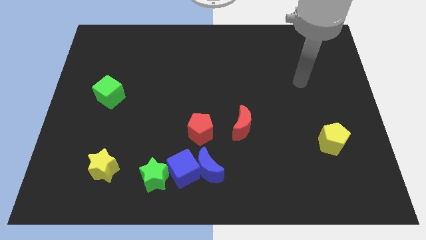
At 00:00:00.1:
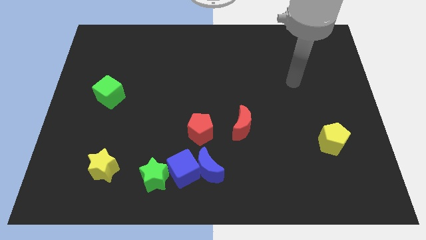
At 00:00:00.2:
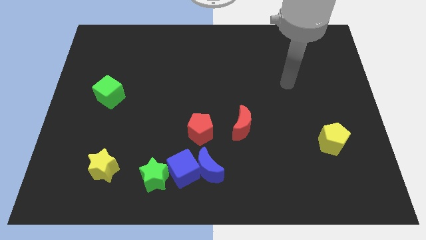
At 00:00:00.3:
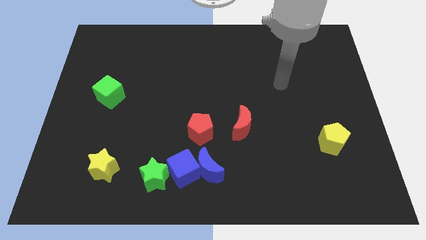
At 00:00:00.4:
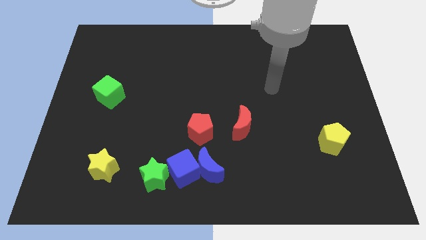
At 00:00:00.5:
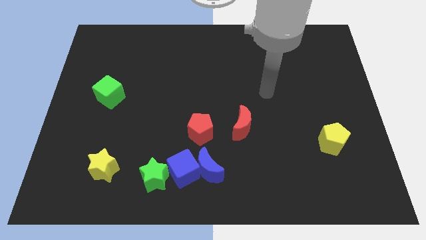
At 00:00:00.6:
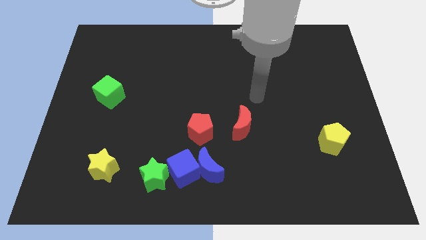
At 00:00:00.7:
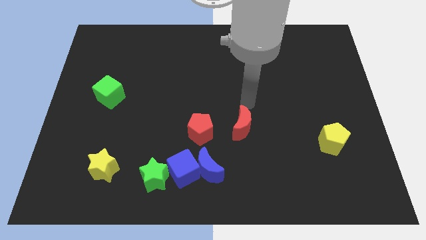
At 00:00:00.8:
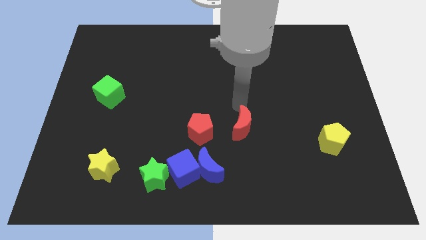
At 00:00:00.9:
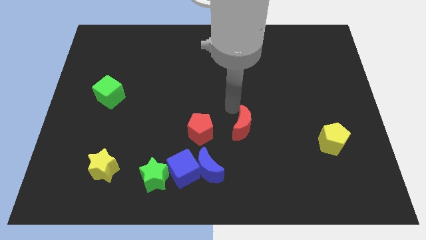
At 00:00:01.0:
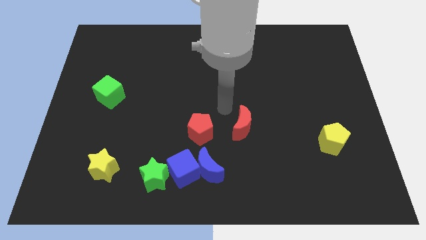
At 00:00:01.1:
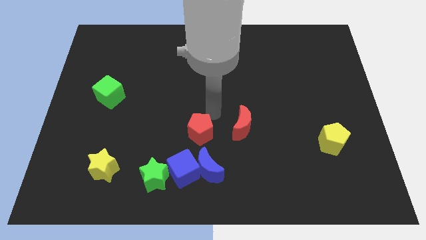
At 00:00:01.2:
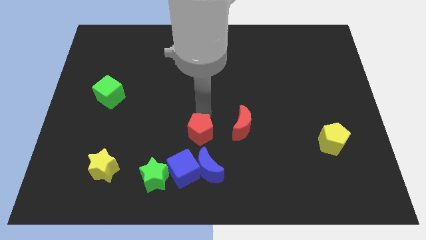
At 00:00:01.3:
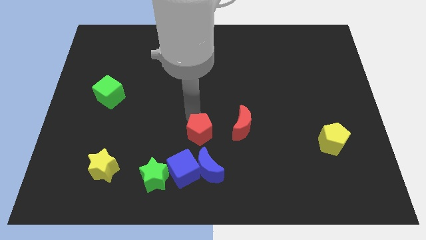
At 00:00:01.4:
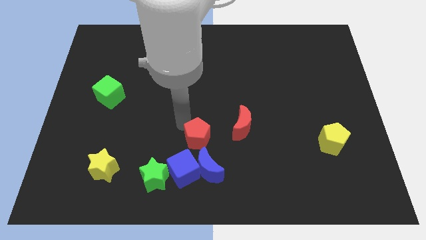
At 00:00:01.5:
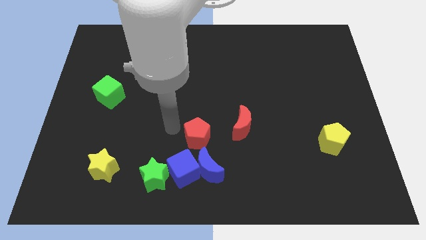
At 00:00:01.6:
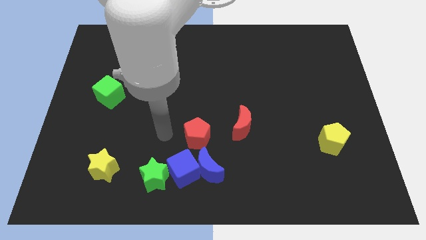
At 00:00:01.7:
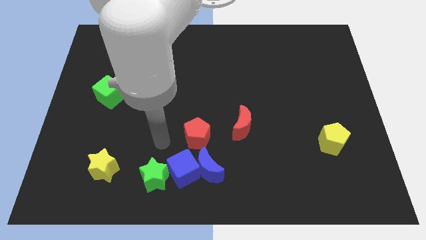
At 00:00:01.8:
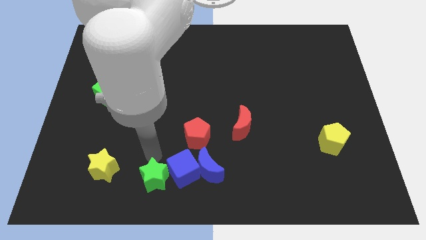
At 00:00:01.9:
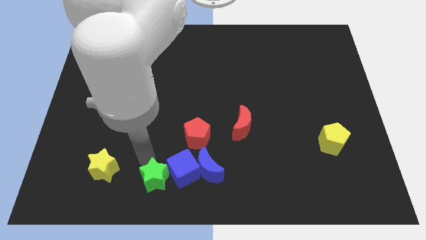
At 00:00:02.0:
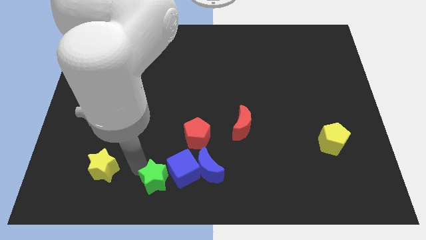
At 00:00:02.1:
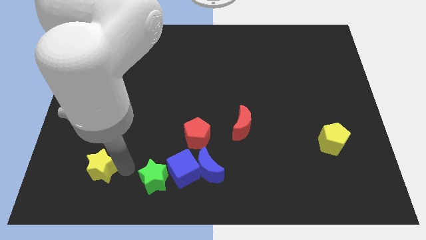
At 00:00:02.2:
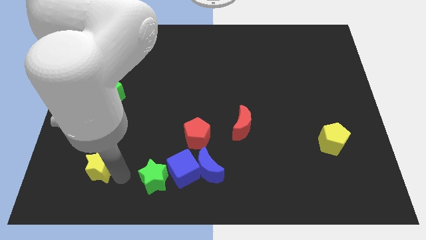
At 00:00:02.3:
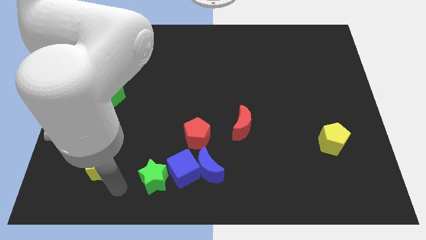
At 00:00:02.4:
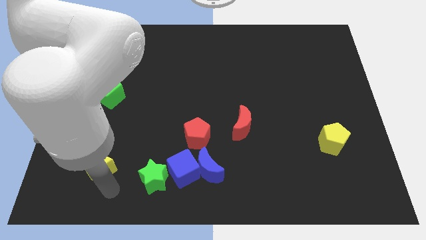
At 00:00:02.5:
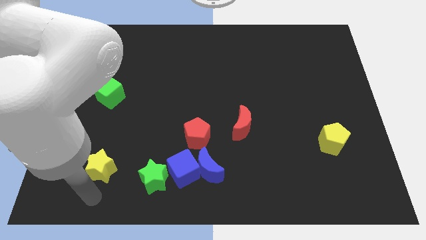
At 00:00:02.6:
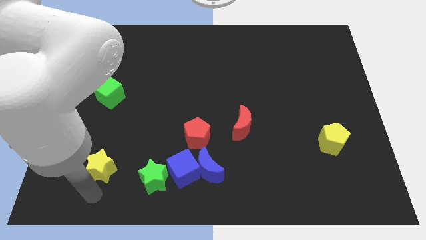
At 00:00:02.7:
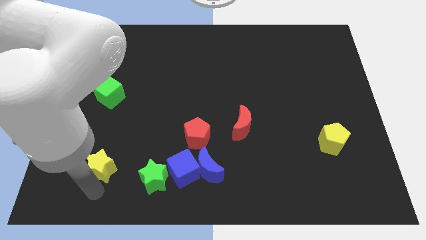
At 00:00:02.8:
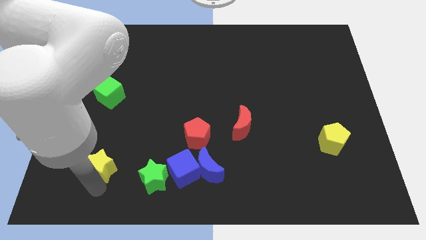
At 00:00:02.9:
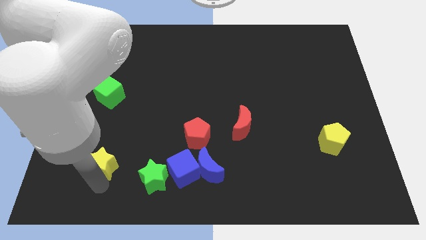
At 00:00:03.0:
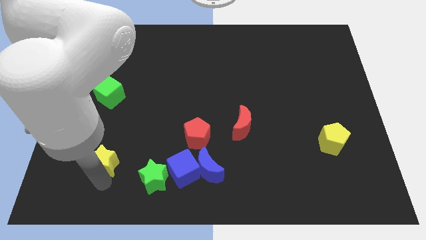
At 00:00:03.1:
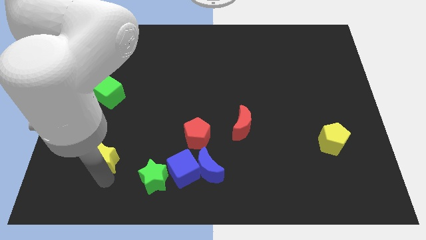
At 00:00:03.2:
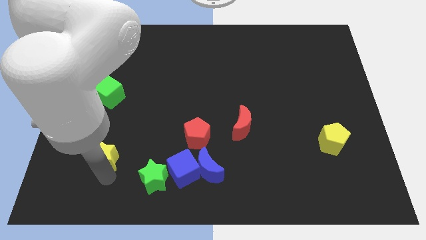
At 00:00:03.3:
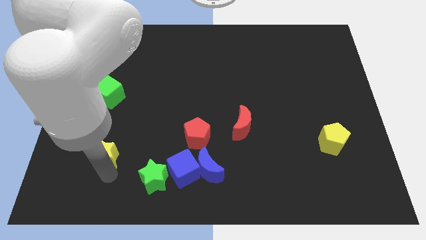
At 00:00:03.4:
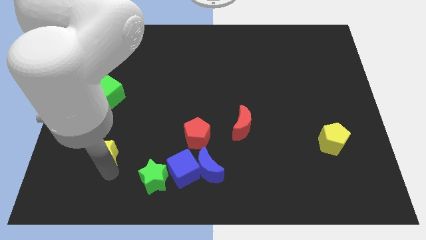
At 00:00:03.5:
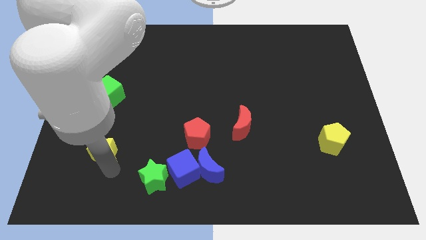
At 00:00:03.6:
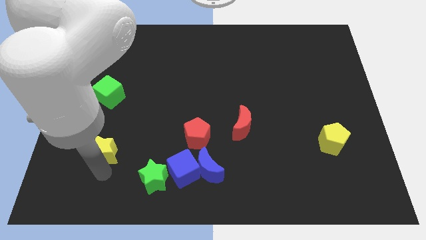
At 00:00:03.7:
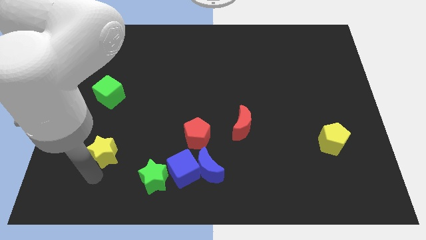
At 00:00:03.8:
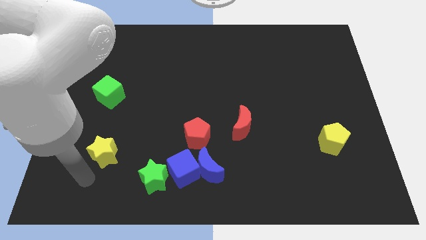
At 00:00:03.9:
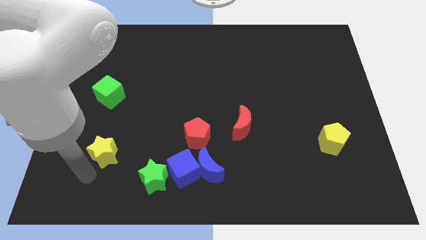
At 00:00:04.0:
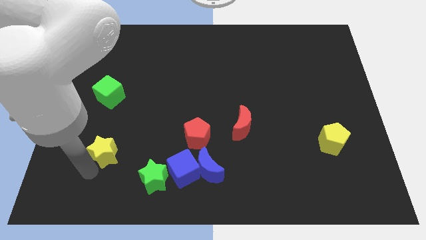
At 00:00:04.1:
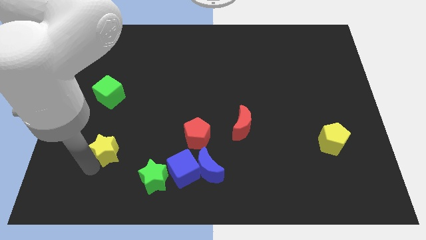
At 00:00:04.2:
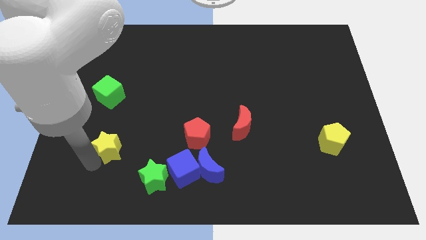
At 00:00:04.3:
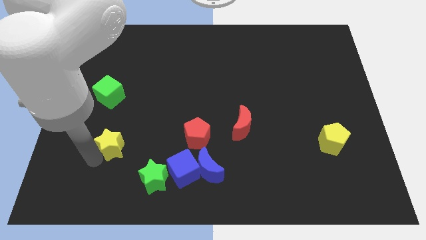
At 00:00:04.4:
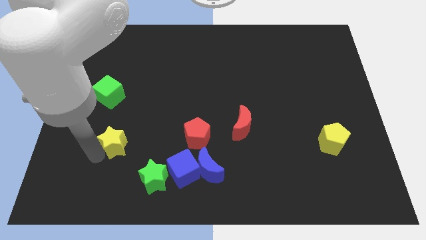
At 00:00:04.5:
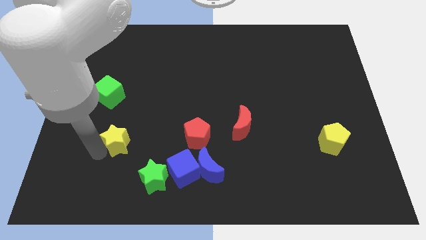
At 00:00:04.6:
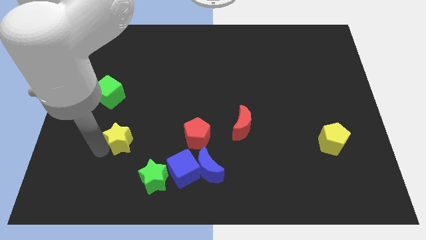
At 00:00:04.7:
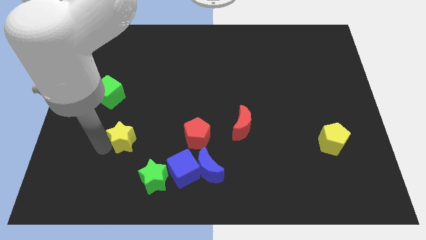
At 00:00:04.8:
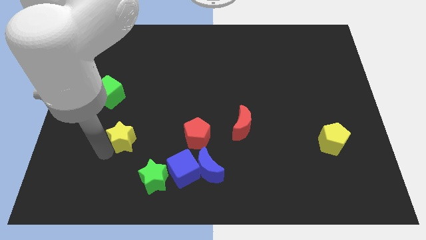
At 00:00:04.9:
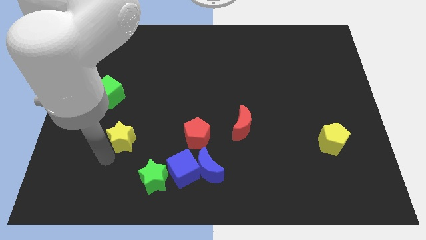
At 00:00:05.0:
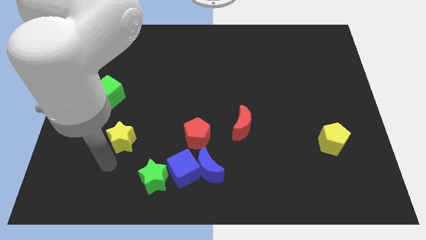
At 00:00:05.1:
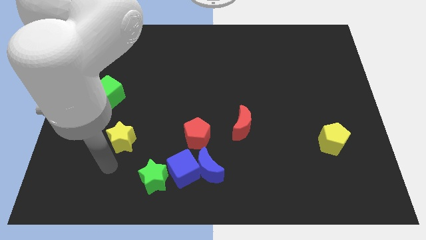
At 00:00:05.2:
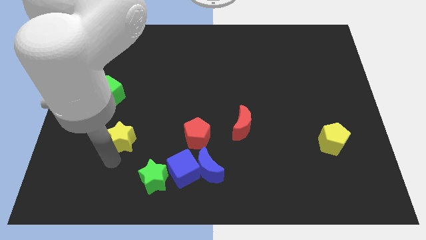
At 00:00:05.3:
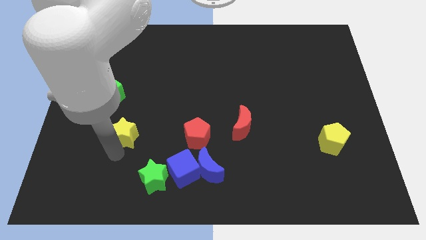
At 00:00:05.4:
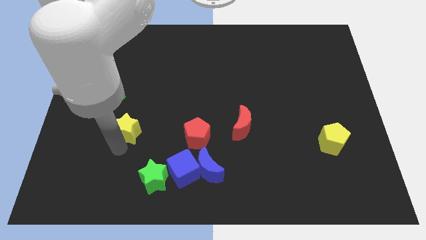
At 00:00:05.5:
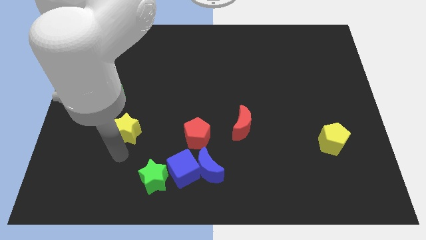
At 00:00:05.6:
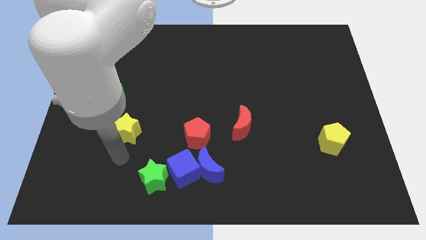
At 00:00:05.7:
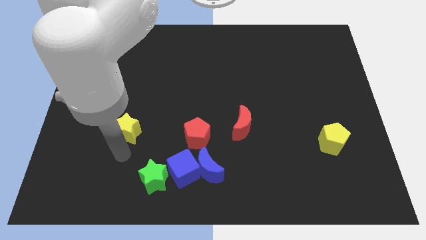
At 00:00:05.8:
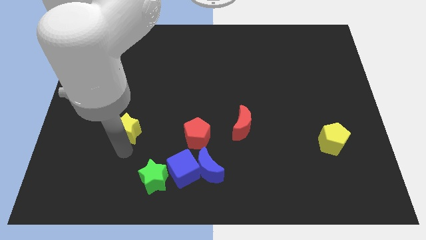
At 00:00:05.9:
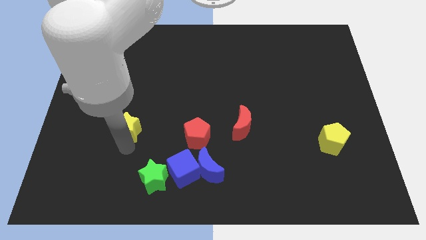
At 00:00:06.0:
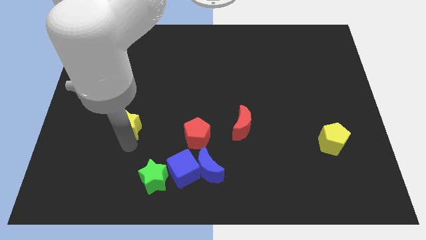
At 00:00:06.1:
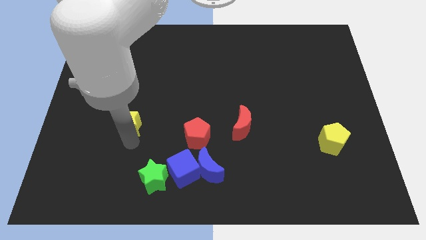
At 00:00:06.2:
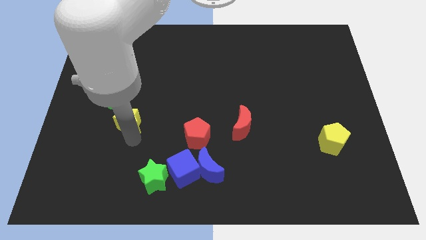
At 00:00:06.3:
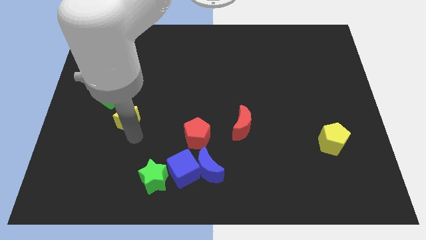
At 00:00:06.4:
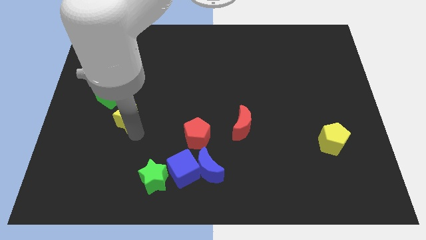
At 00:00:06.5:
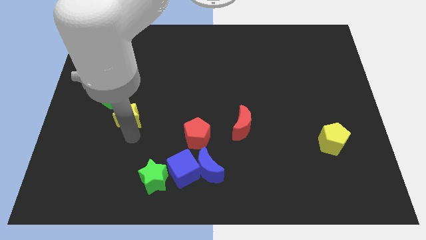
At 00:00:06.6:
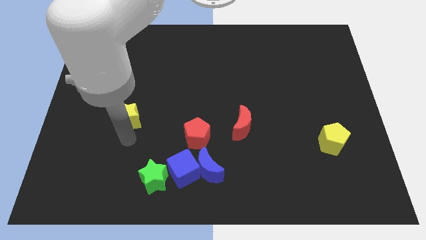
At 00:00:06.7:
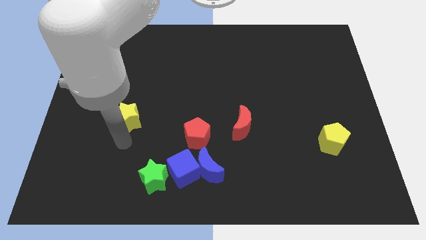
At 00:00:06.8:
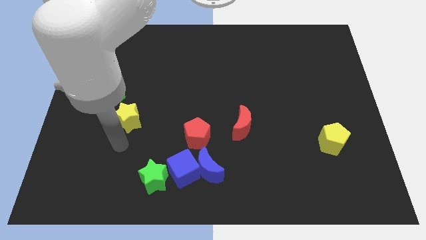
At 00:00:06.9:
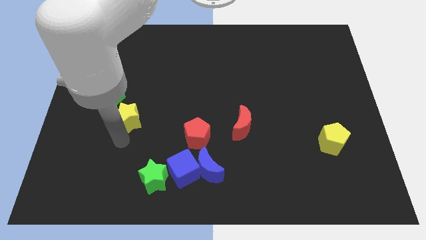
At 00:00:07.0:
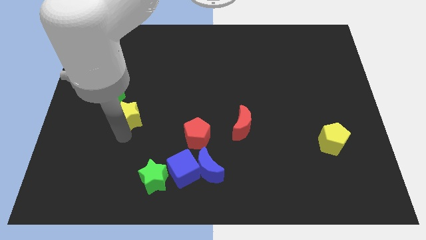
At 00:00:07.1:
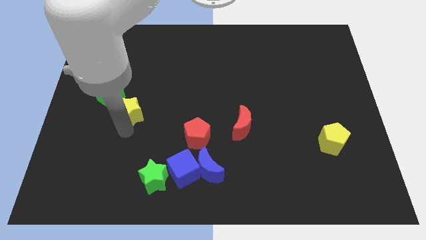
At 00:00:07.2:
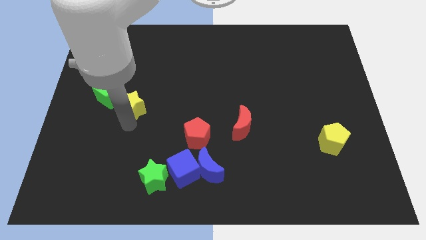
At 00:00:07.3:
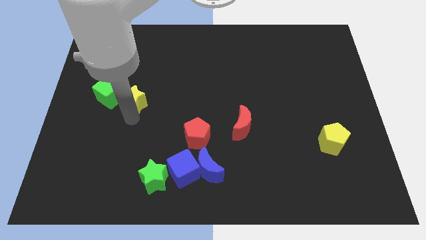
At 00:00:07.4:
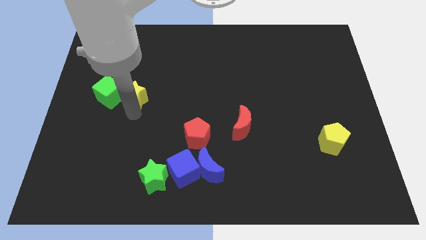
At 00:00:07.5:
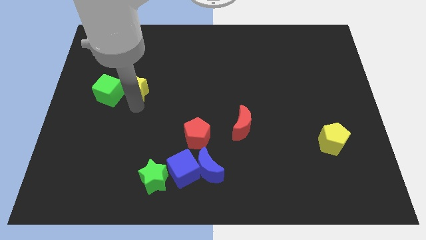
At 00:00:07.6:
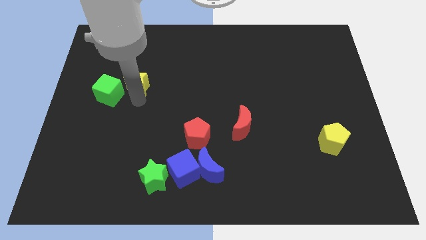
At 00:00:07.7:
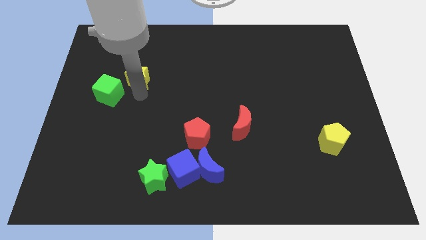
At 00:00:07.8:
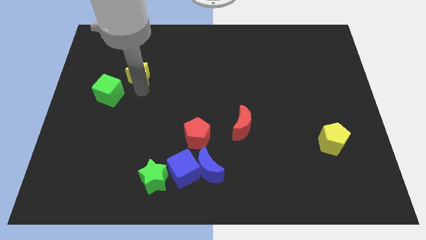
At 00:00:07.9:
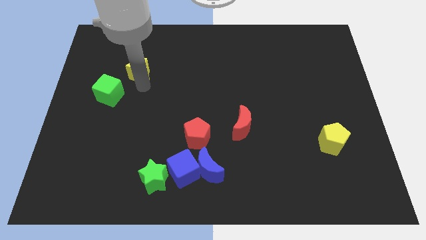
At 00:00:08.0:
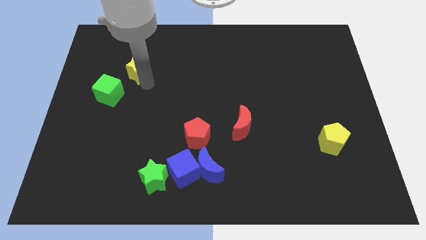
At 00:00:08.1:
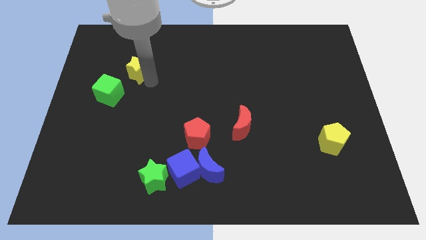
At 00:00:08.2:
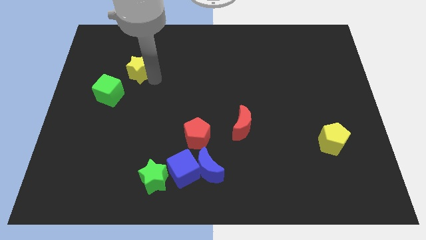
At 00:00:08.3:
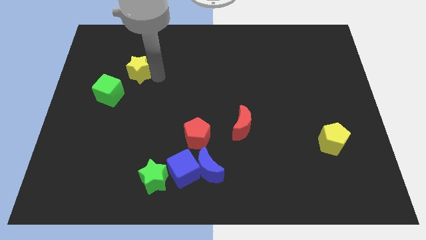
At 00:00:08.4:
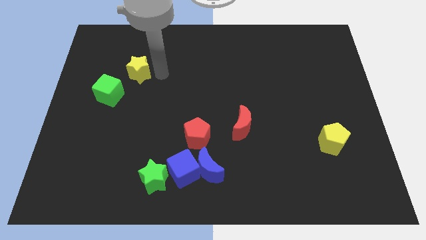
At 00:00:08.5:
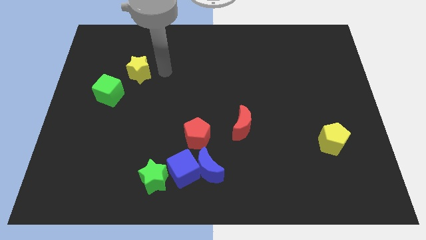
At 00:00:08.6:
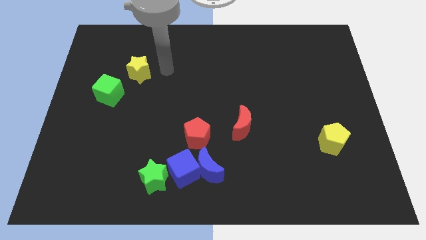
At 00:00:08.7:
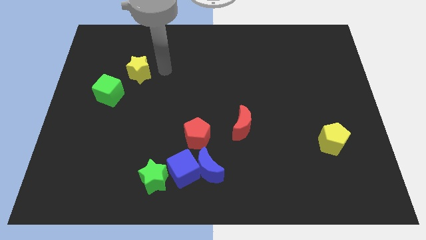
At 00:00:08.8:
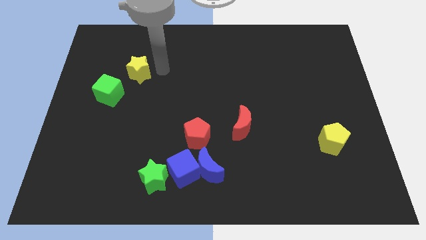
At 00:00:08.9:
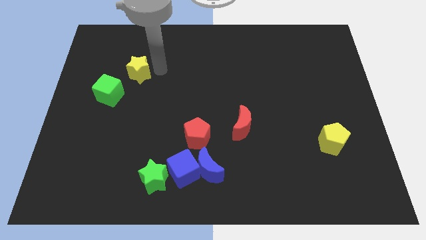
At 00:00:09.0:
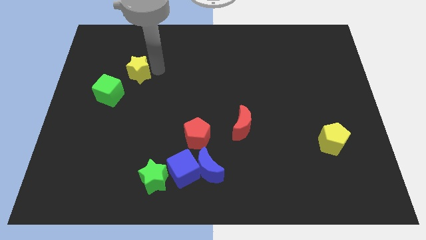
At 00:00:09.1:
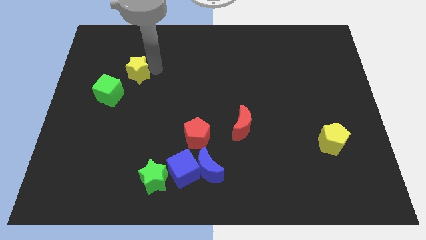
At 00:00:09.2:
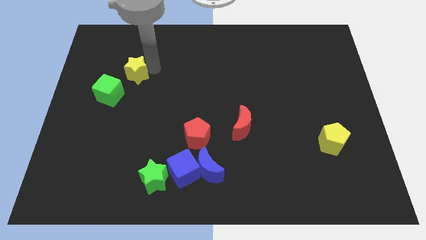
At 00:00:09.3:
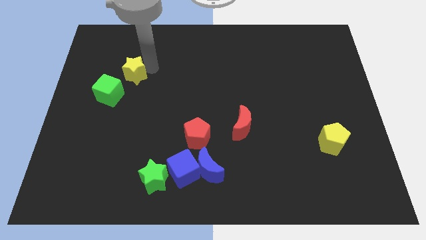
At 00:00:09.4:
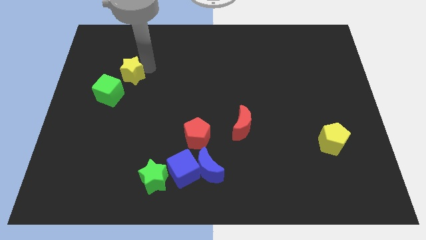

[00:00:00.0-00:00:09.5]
slide the yellow star to the top side of the green cube
